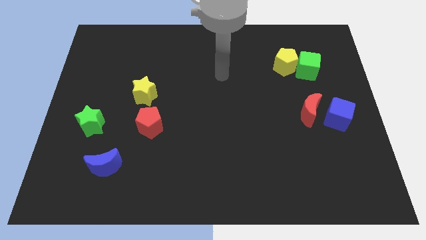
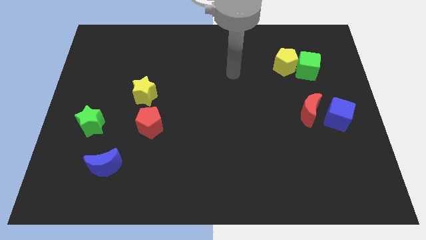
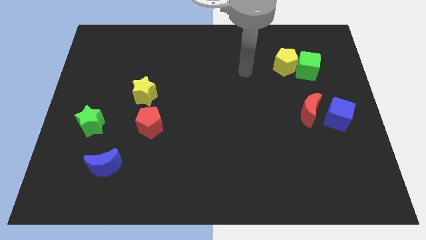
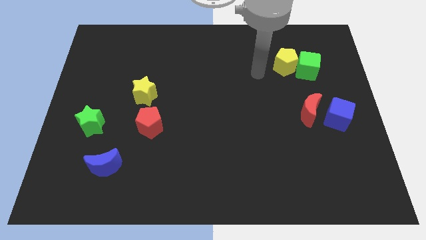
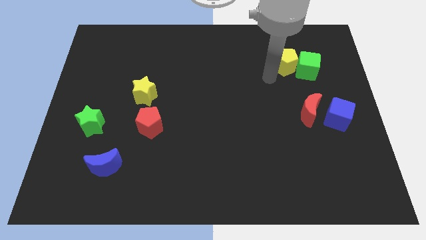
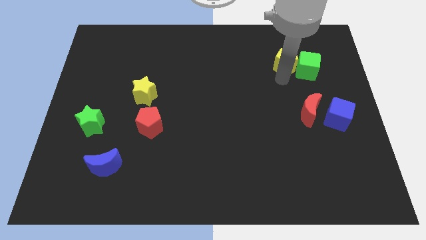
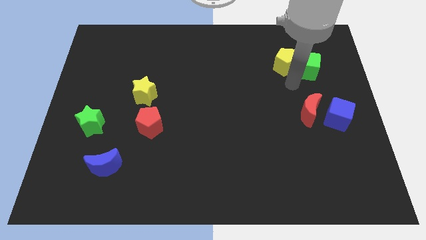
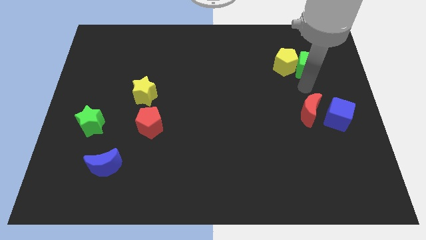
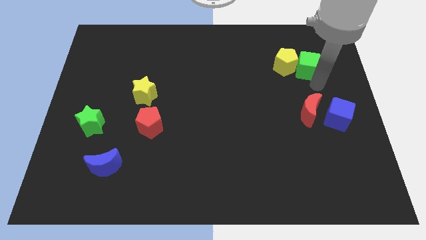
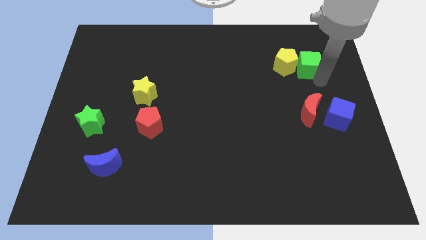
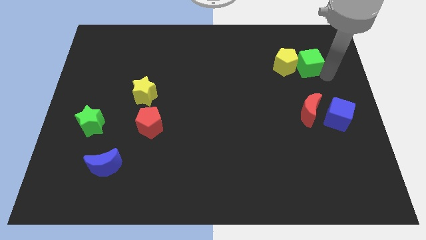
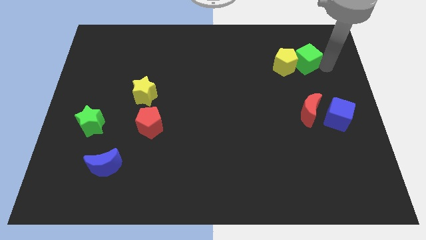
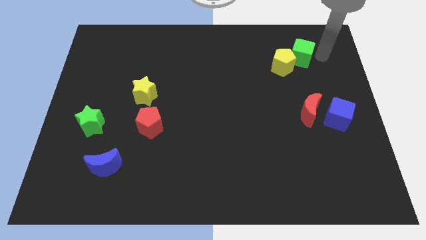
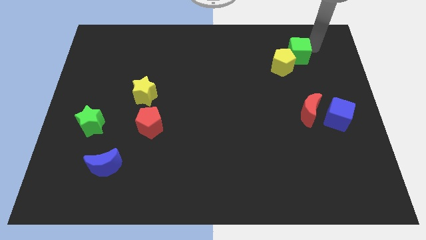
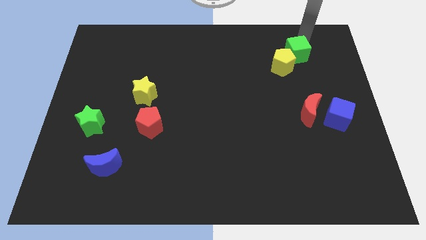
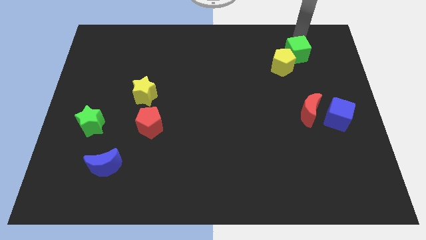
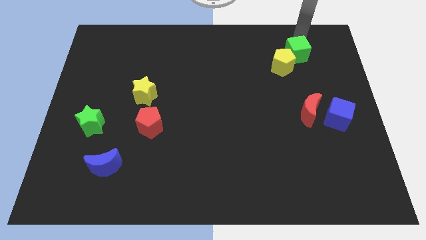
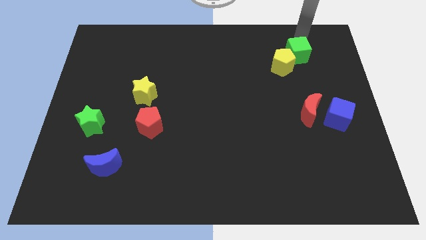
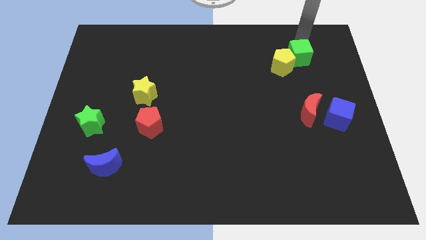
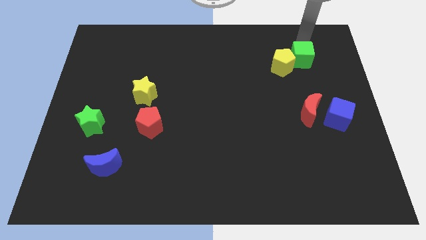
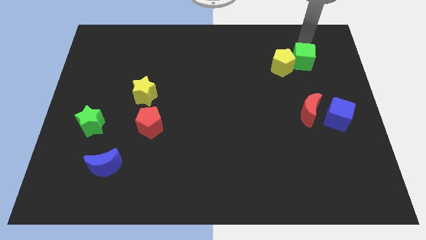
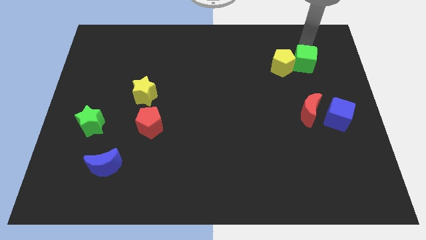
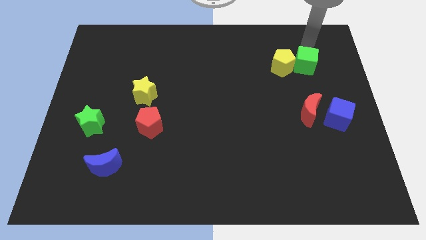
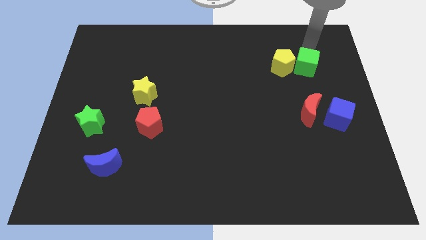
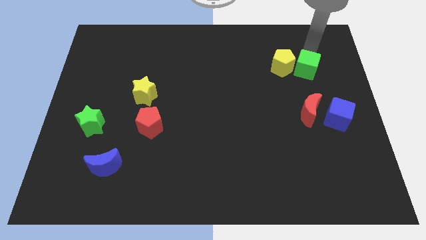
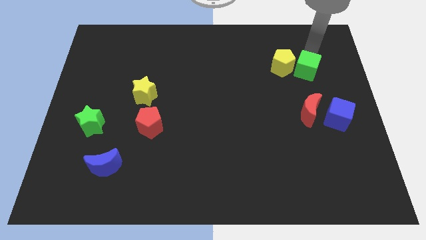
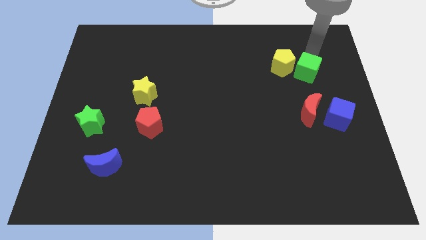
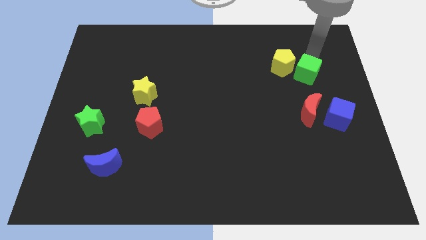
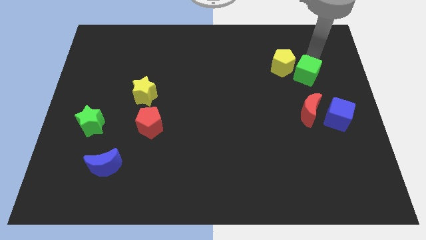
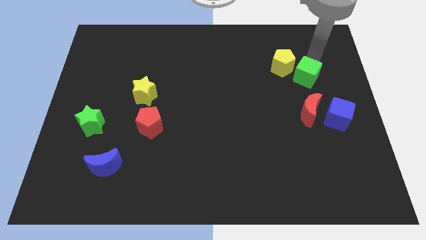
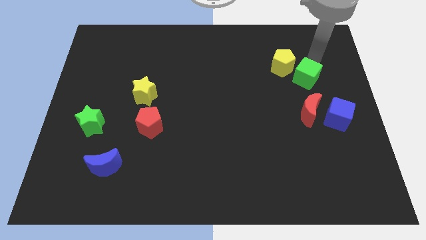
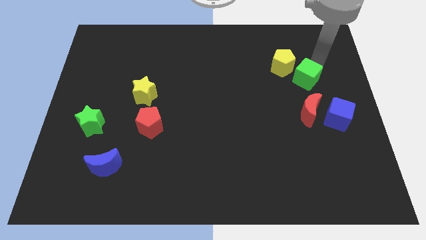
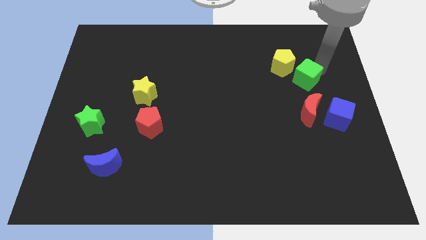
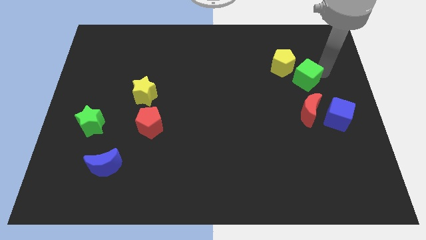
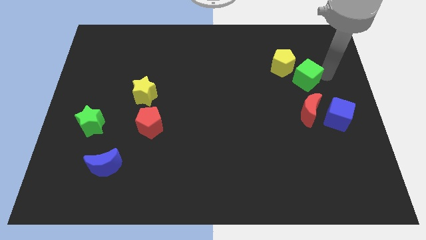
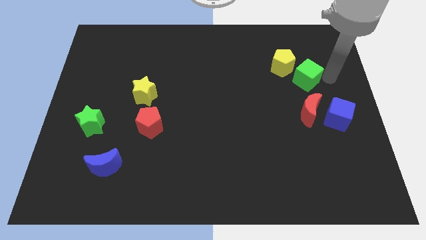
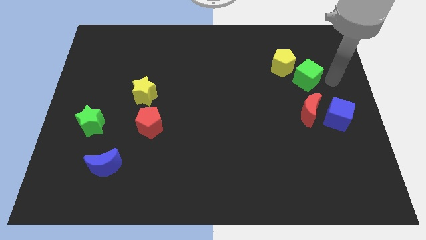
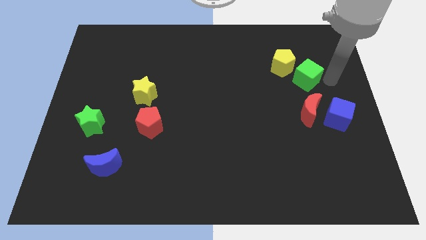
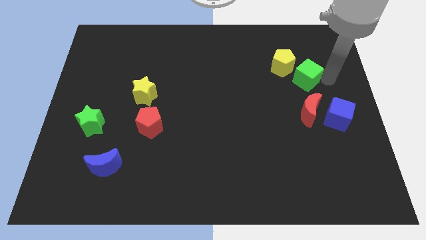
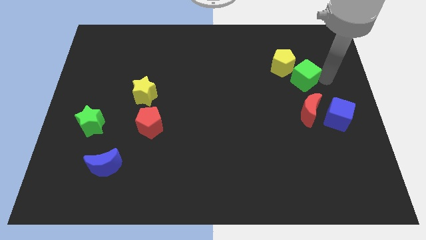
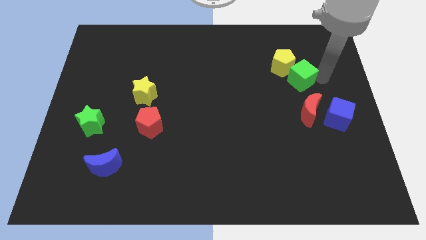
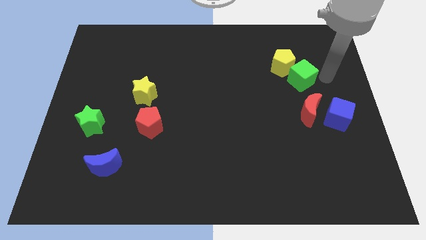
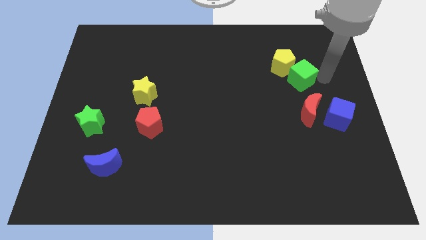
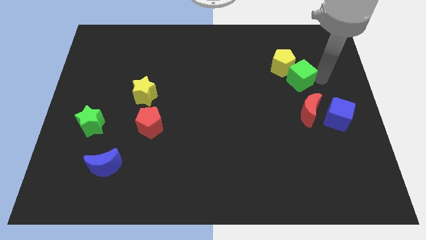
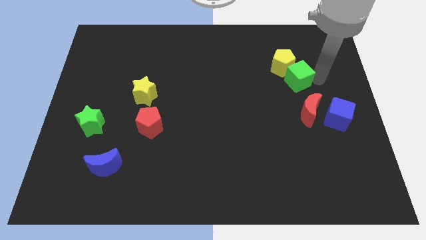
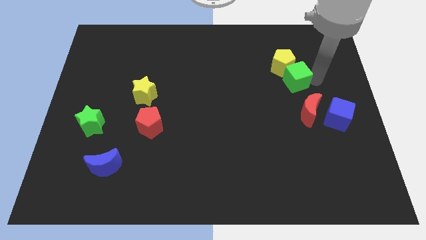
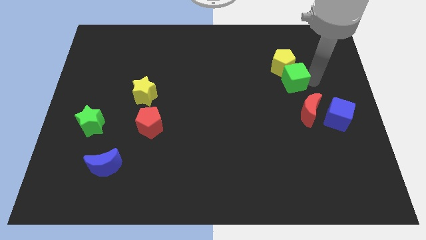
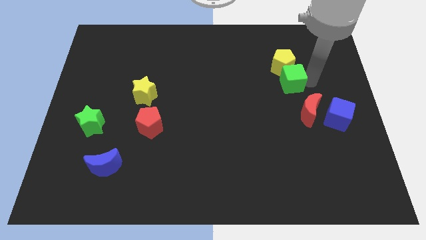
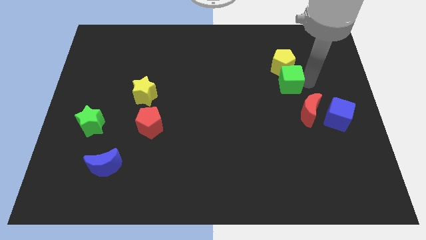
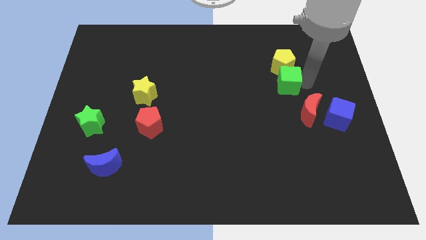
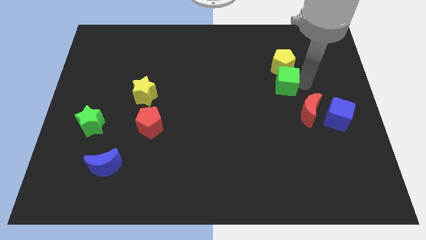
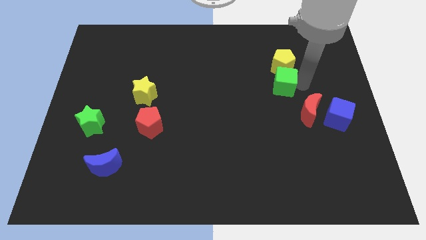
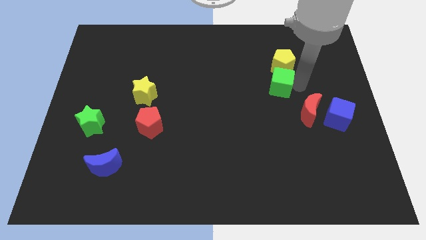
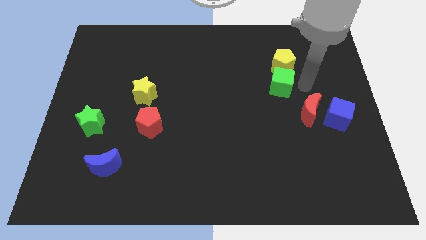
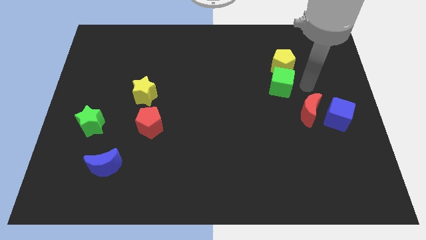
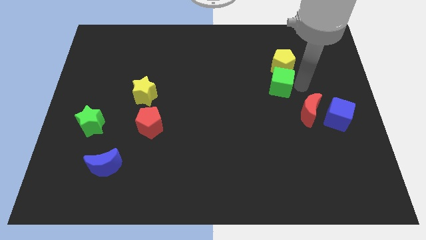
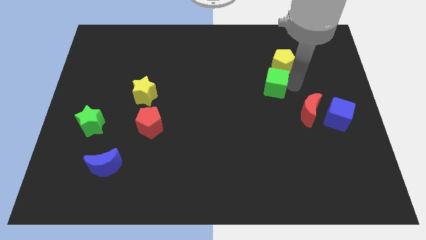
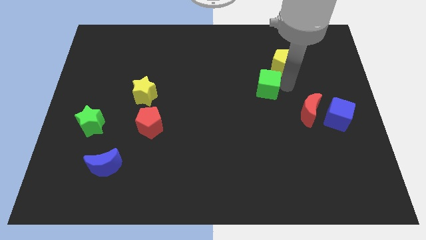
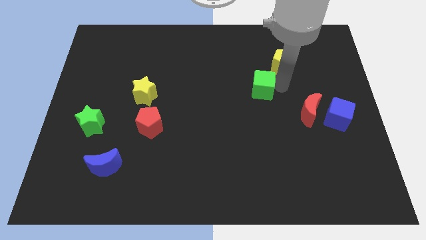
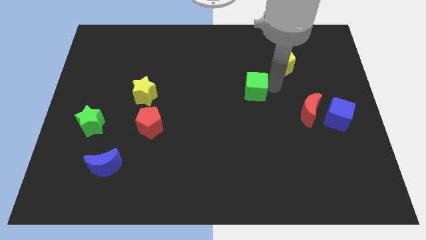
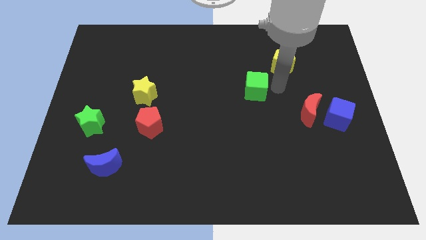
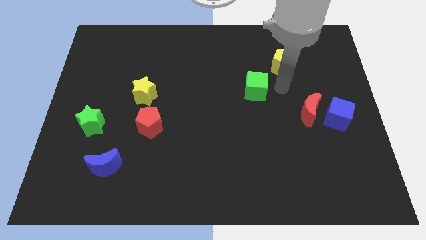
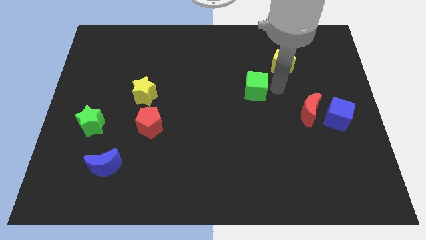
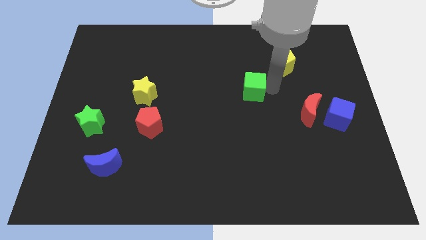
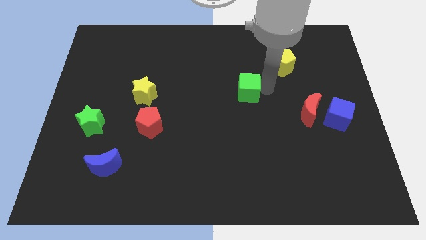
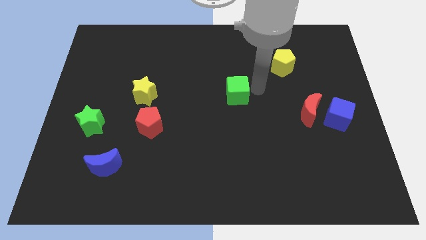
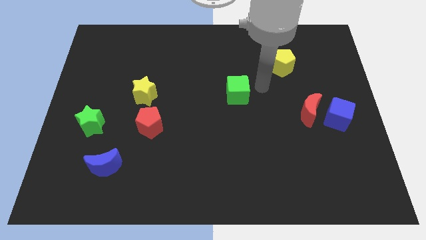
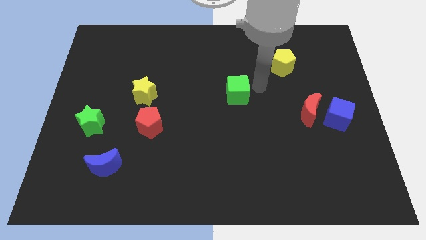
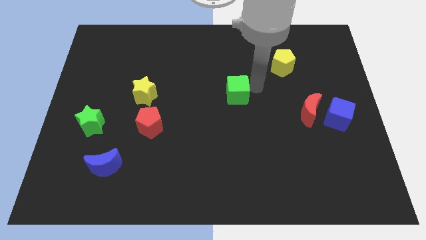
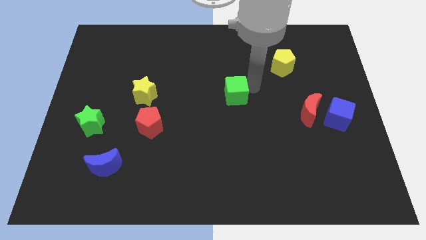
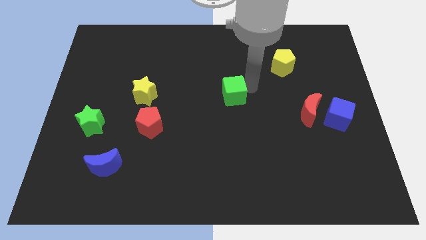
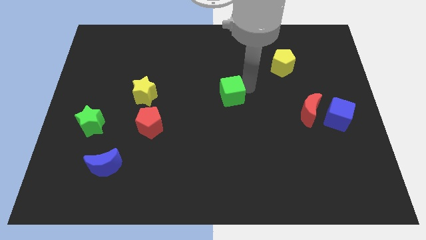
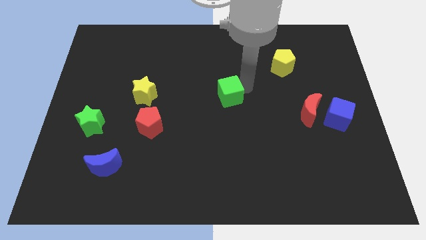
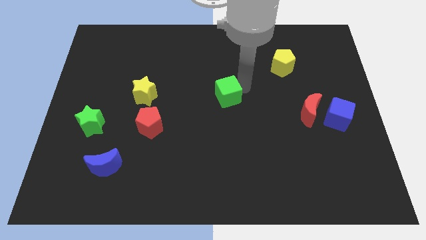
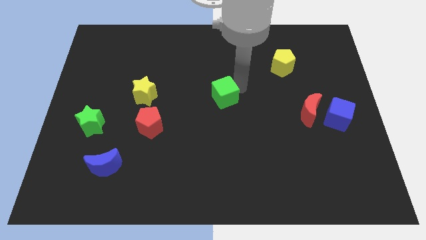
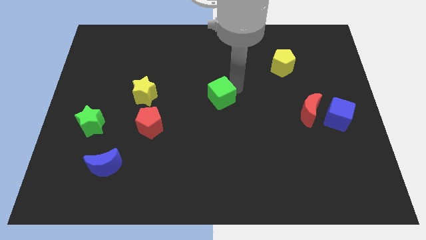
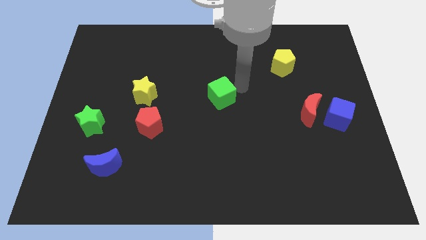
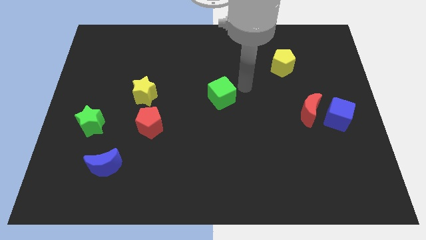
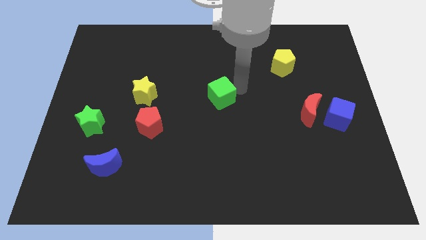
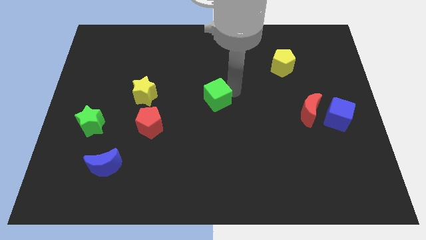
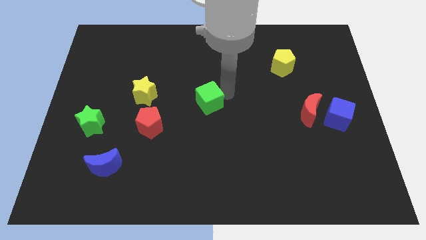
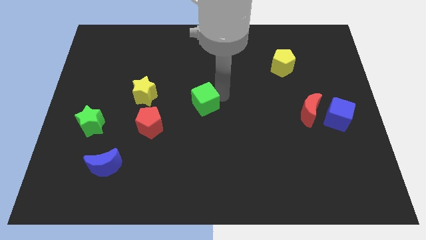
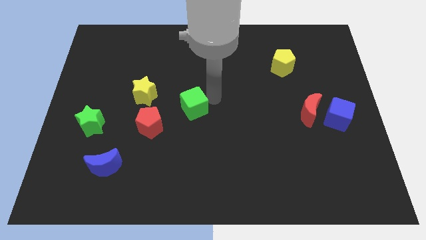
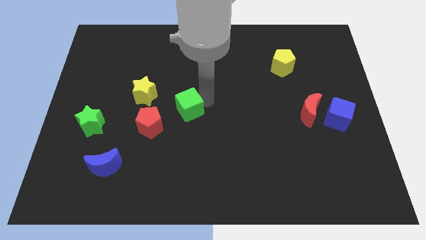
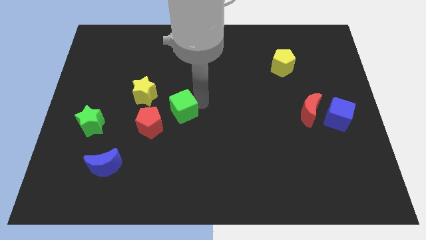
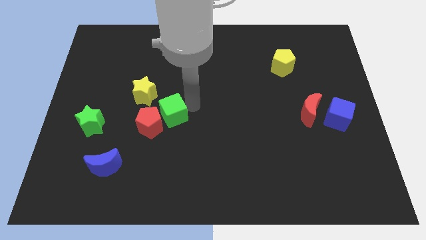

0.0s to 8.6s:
slide the green cube to the red pentagon
